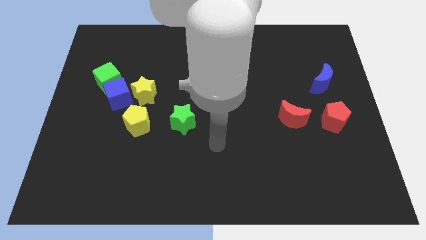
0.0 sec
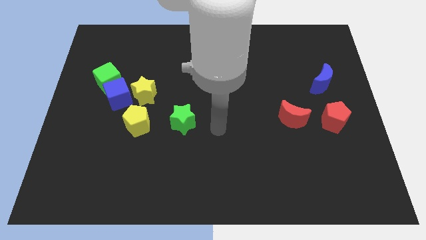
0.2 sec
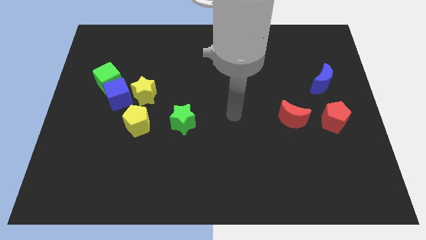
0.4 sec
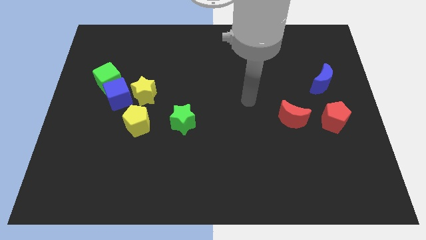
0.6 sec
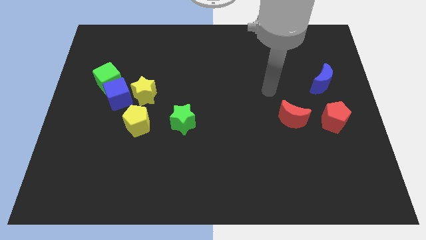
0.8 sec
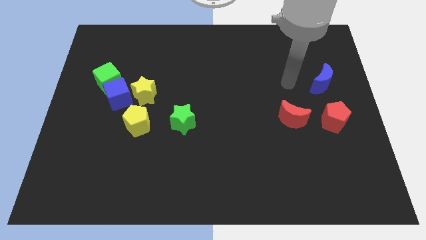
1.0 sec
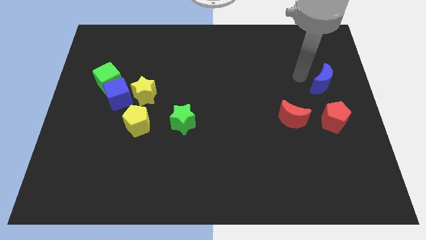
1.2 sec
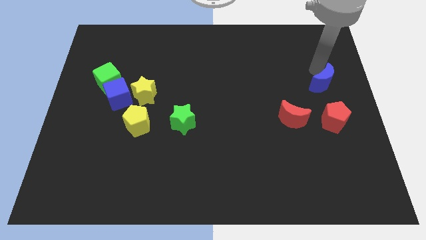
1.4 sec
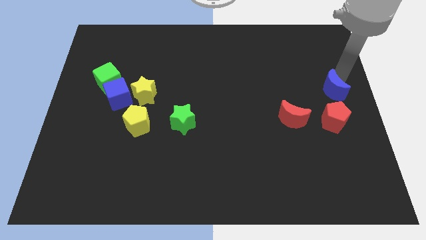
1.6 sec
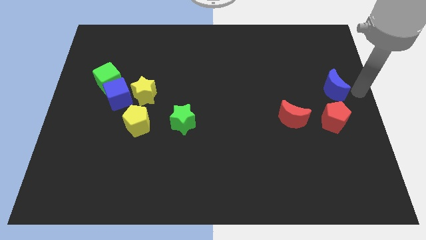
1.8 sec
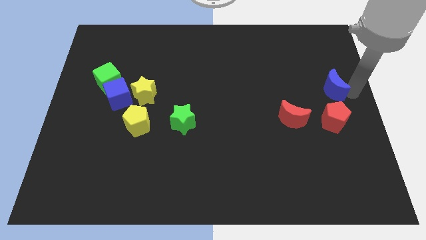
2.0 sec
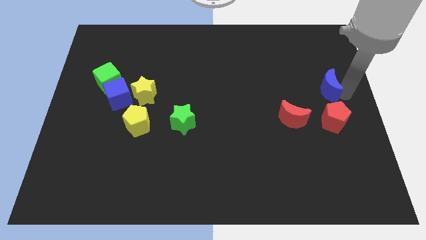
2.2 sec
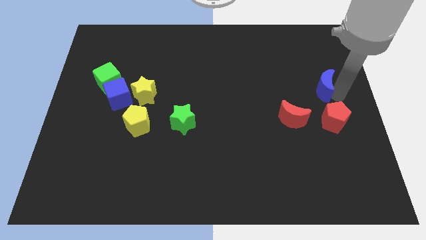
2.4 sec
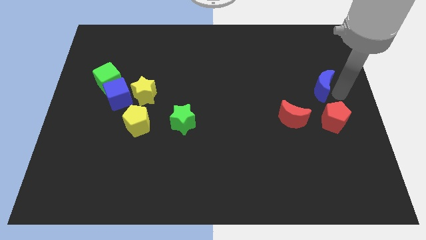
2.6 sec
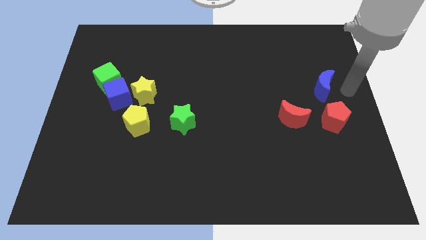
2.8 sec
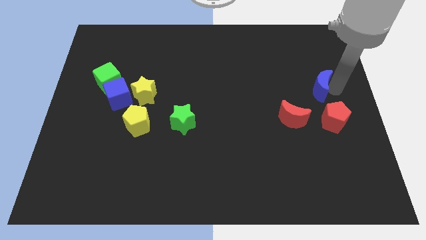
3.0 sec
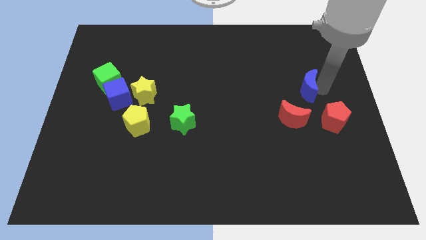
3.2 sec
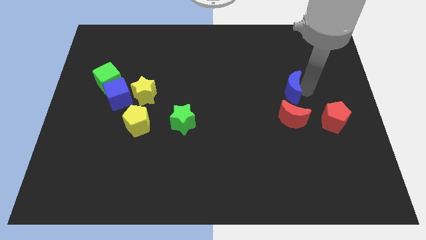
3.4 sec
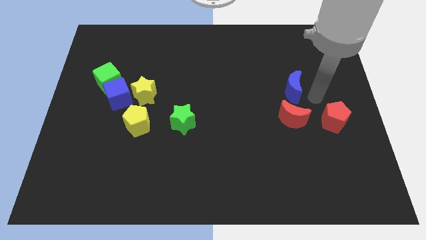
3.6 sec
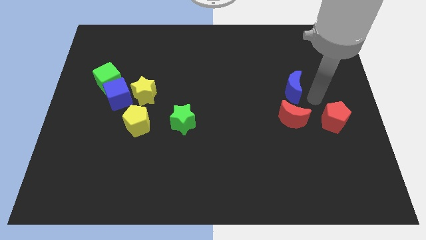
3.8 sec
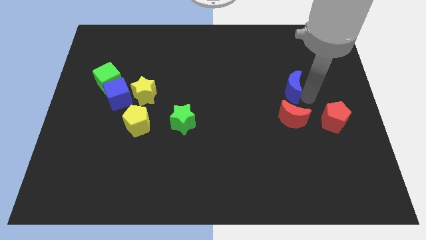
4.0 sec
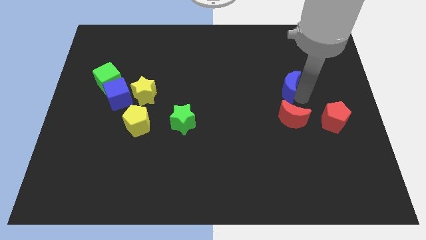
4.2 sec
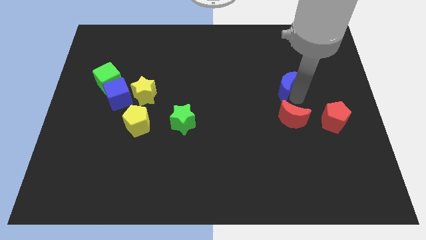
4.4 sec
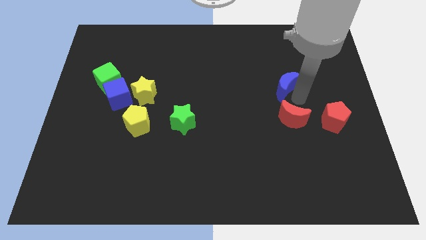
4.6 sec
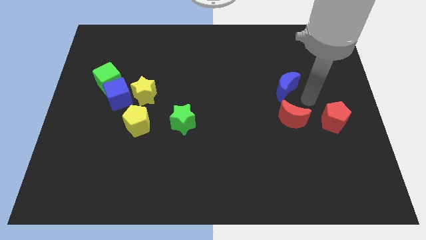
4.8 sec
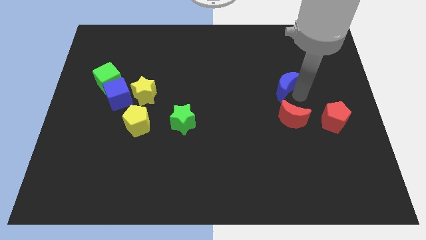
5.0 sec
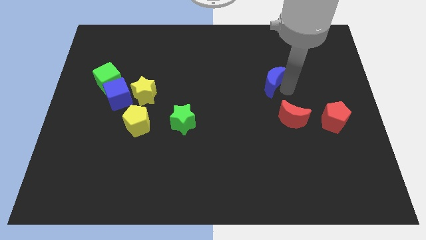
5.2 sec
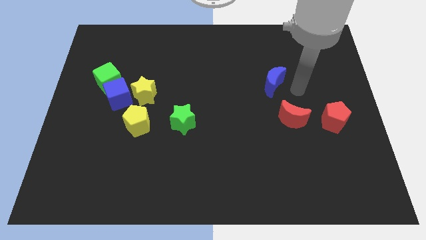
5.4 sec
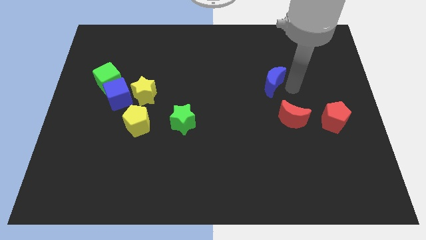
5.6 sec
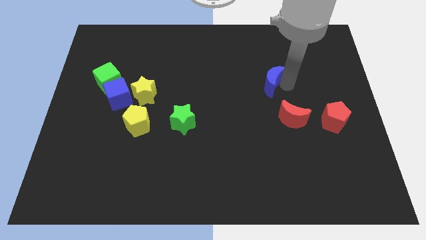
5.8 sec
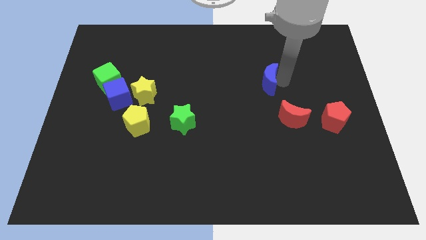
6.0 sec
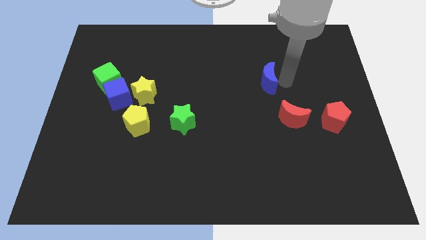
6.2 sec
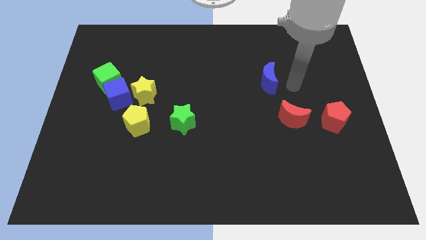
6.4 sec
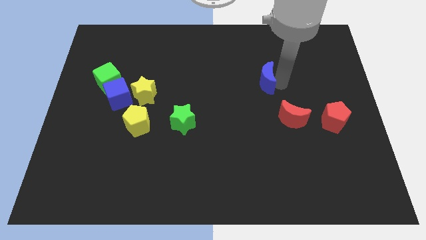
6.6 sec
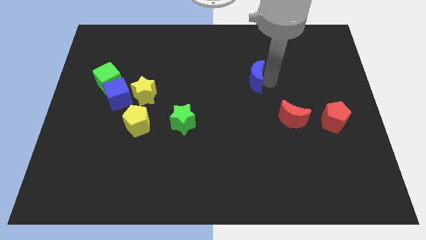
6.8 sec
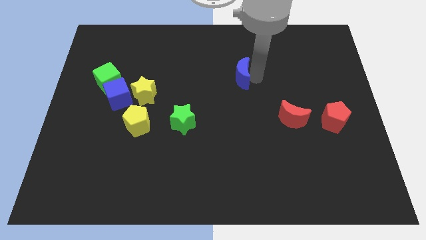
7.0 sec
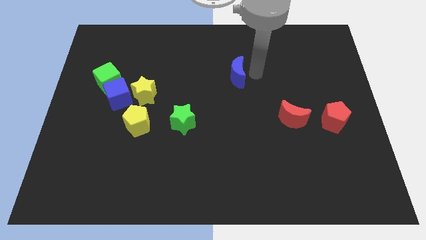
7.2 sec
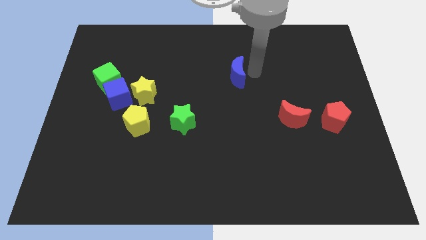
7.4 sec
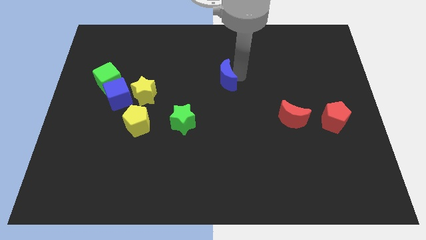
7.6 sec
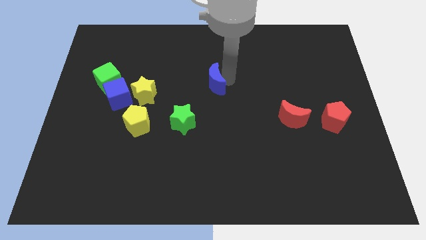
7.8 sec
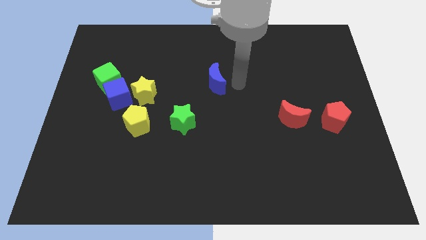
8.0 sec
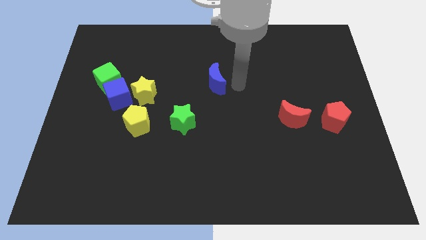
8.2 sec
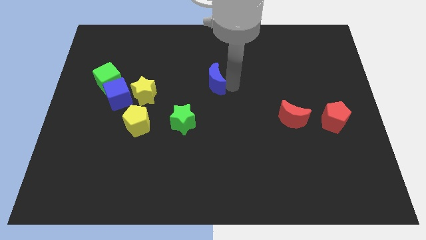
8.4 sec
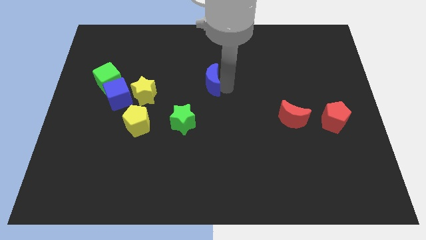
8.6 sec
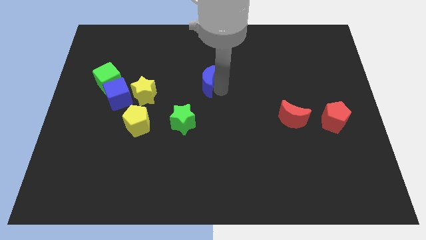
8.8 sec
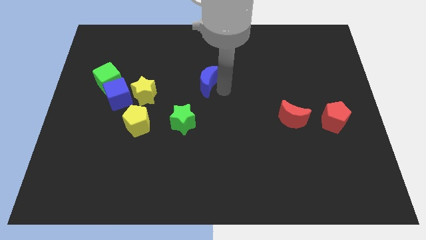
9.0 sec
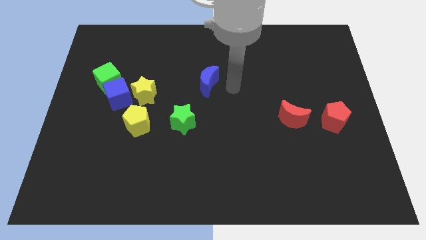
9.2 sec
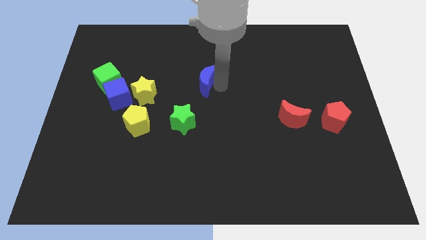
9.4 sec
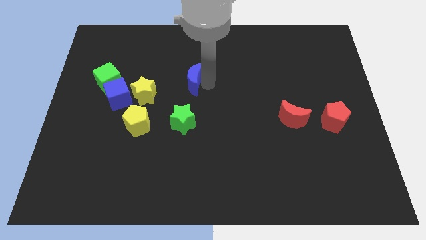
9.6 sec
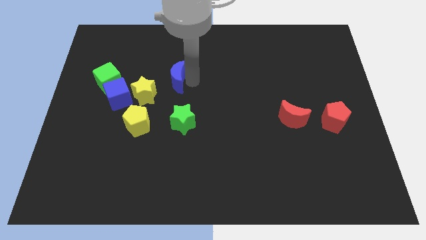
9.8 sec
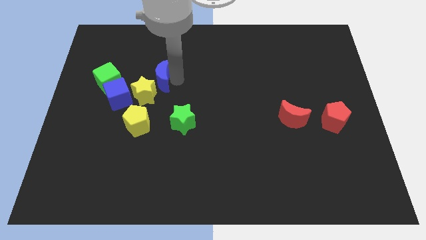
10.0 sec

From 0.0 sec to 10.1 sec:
move the blue moon diagonally up and to the right of the blue cube

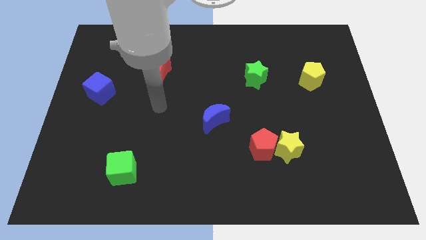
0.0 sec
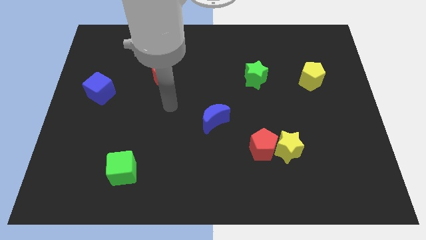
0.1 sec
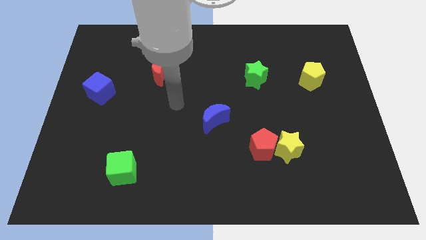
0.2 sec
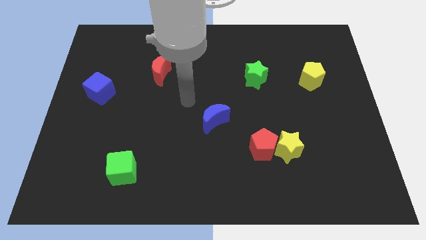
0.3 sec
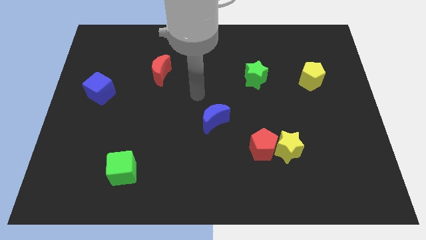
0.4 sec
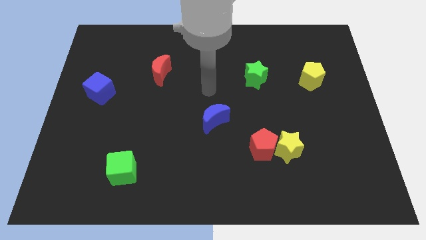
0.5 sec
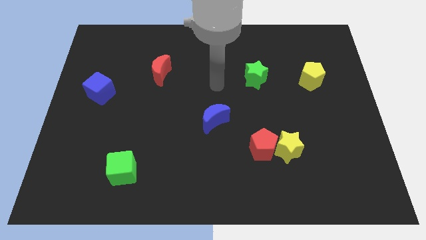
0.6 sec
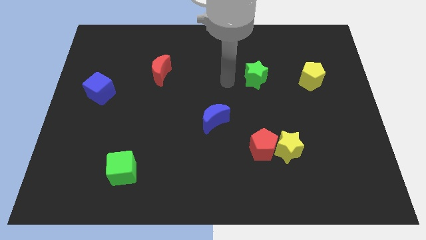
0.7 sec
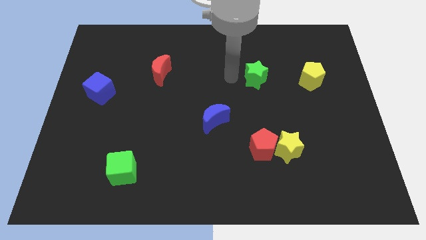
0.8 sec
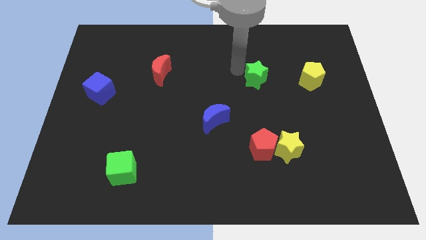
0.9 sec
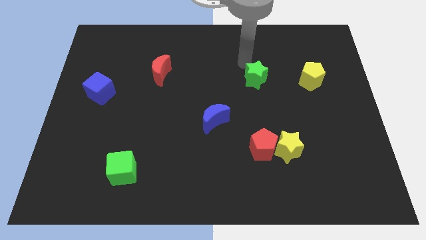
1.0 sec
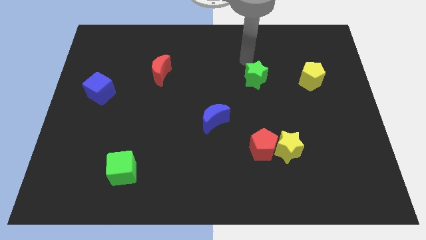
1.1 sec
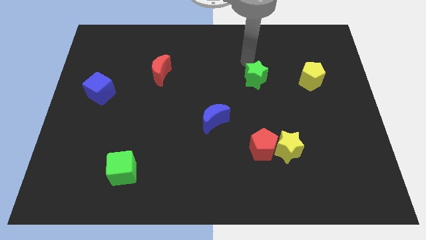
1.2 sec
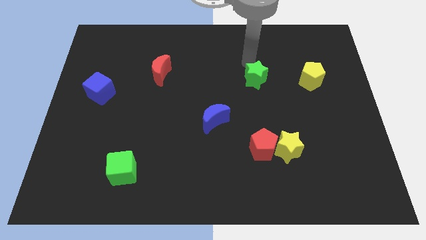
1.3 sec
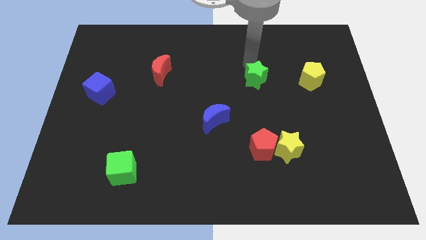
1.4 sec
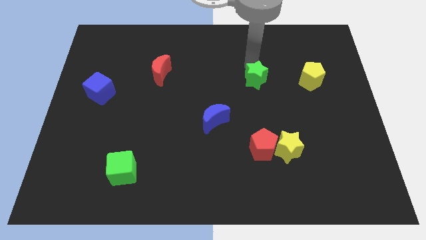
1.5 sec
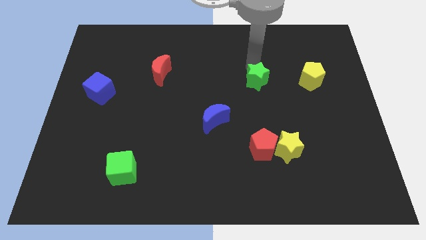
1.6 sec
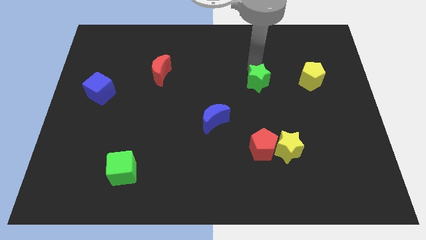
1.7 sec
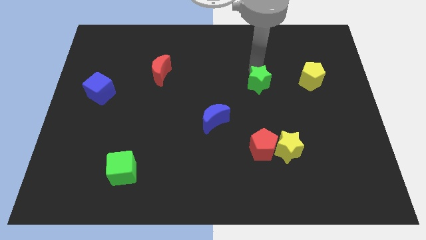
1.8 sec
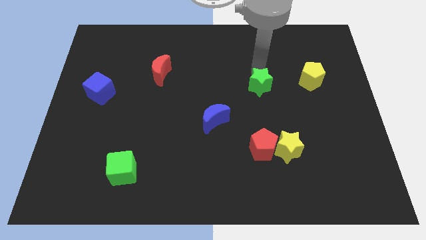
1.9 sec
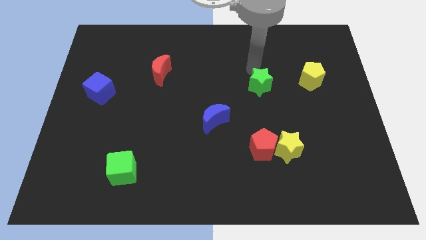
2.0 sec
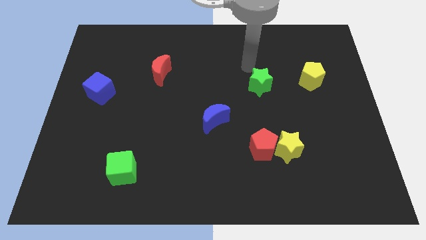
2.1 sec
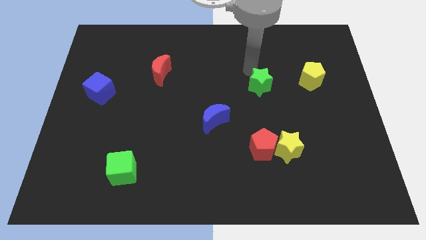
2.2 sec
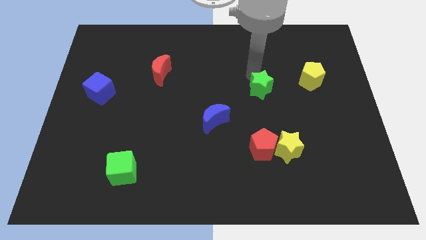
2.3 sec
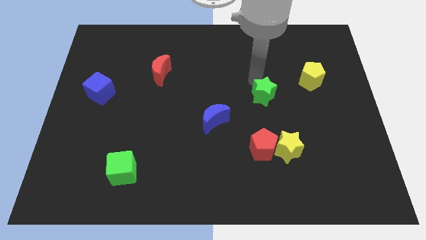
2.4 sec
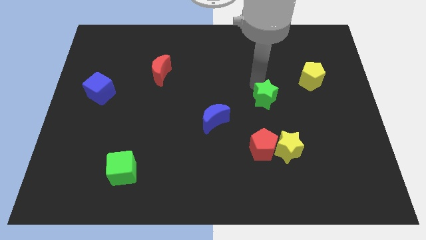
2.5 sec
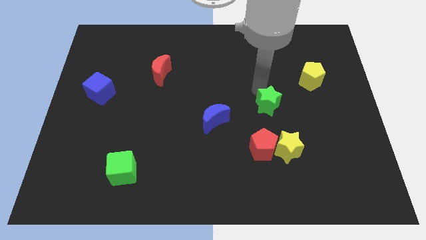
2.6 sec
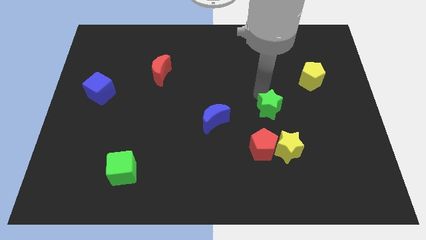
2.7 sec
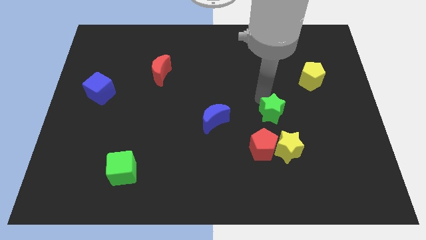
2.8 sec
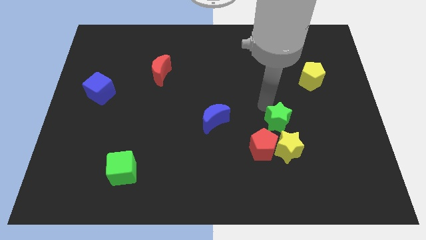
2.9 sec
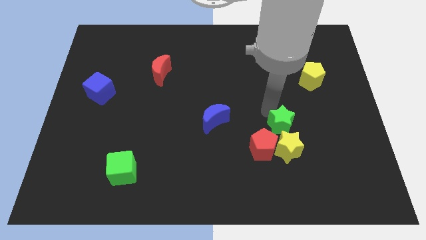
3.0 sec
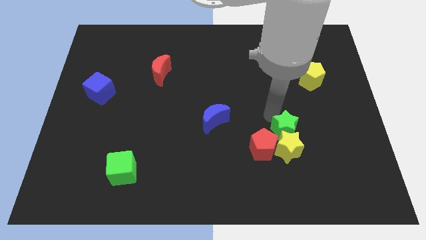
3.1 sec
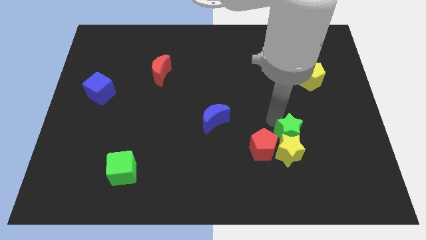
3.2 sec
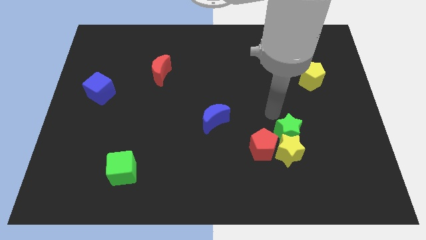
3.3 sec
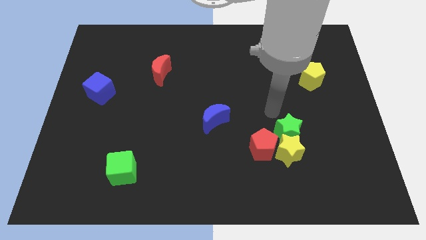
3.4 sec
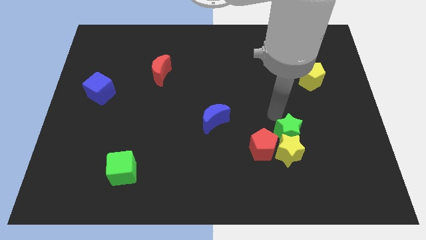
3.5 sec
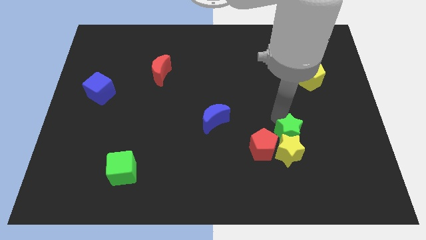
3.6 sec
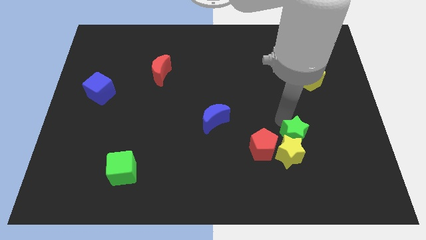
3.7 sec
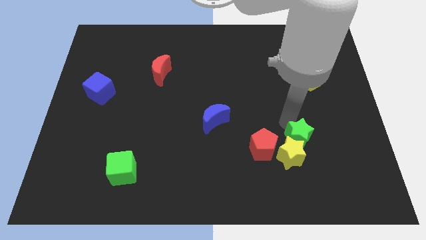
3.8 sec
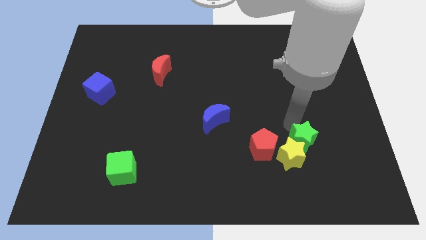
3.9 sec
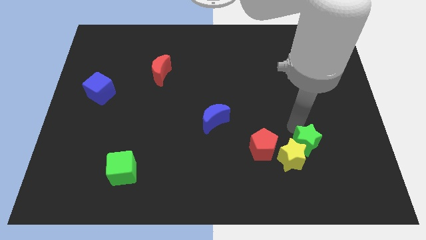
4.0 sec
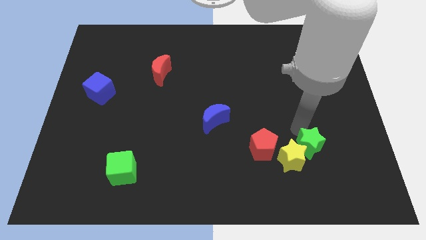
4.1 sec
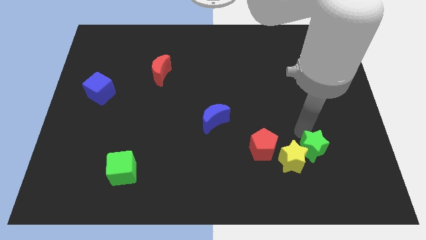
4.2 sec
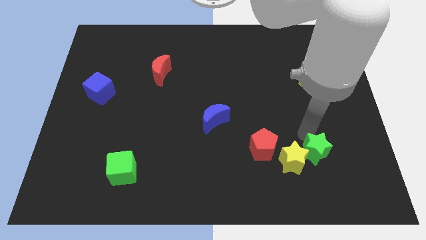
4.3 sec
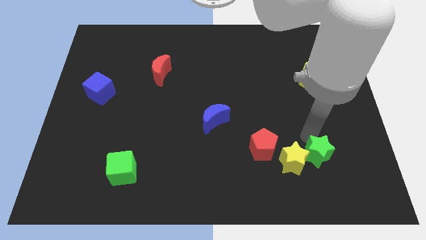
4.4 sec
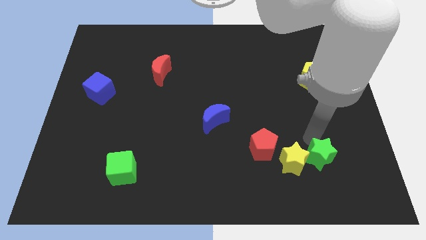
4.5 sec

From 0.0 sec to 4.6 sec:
push the green star diagonally down and to the right of the yellow star
